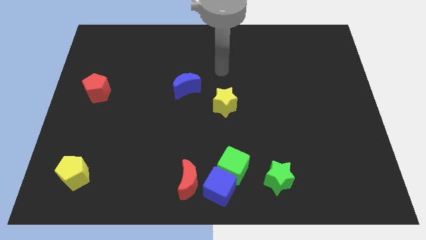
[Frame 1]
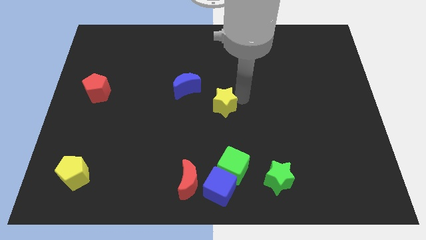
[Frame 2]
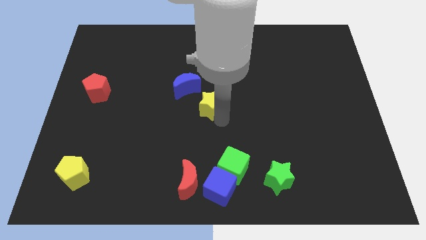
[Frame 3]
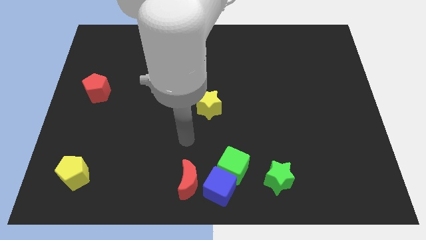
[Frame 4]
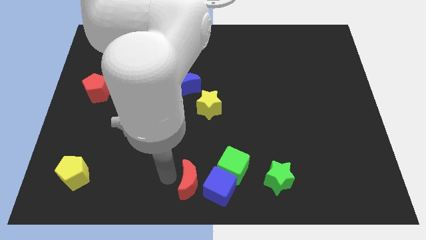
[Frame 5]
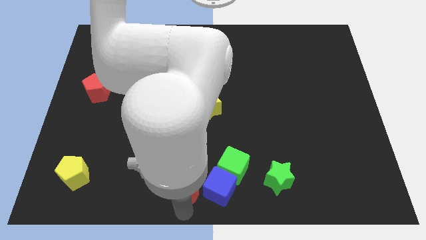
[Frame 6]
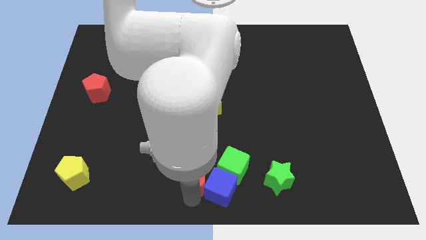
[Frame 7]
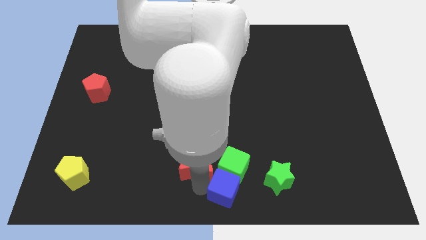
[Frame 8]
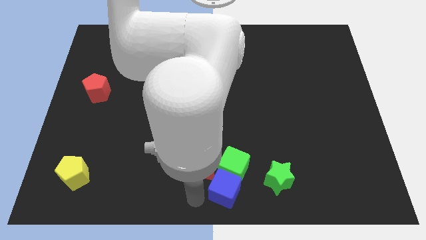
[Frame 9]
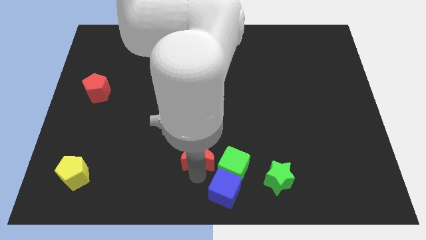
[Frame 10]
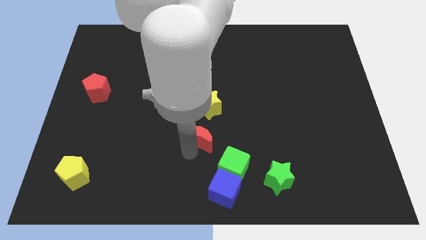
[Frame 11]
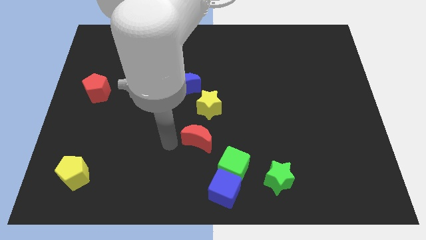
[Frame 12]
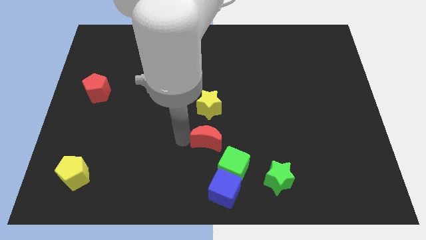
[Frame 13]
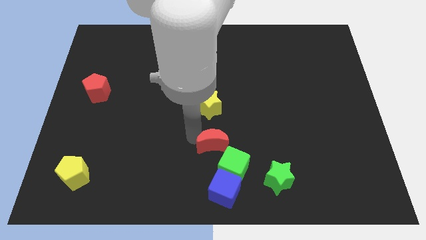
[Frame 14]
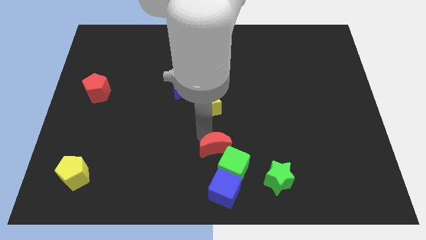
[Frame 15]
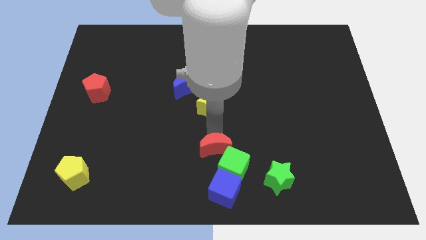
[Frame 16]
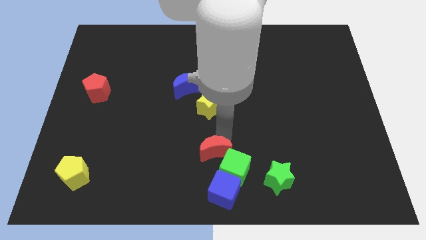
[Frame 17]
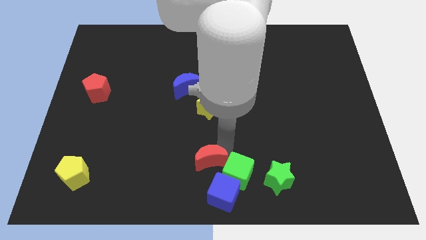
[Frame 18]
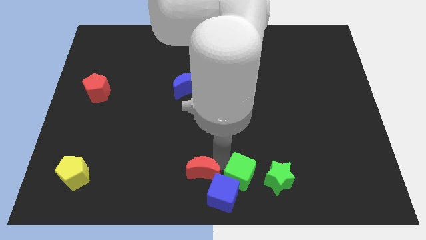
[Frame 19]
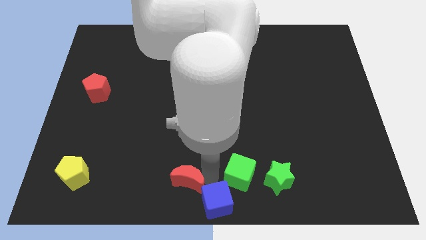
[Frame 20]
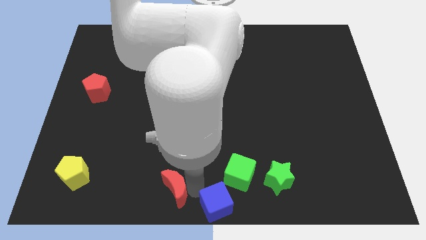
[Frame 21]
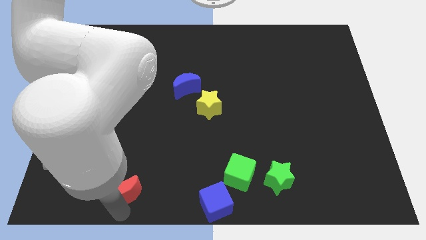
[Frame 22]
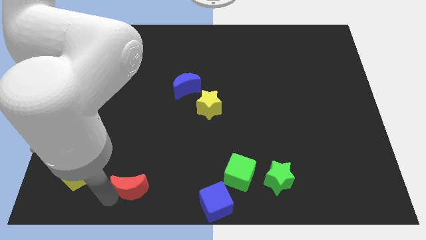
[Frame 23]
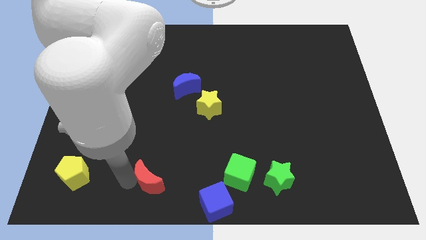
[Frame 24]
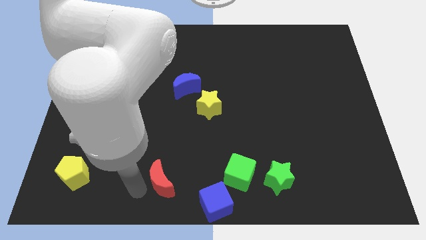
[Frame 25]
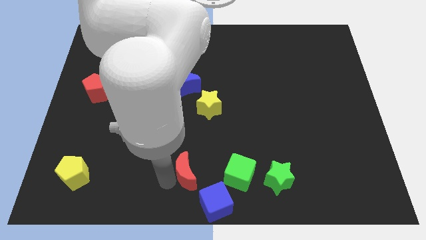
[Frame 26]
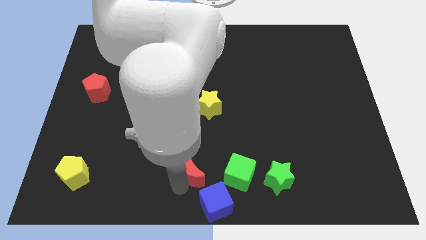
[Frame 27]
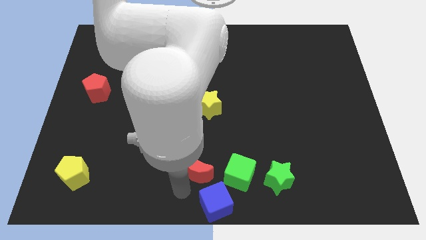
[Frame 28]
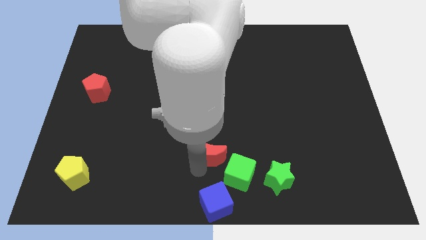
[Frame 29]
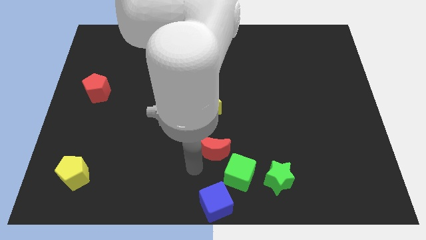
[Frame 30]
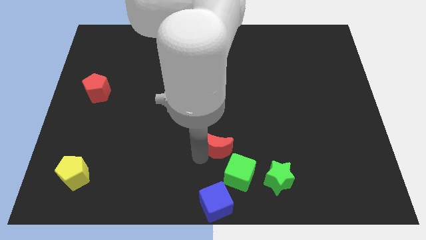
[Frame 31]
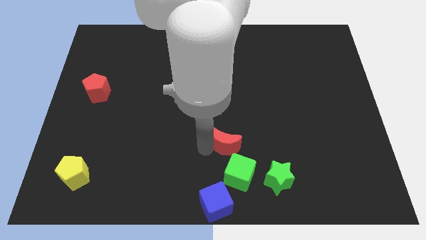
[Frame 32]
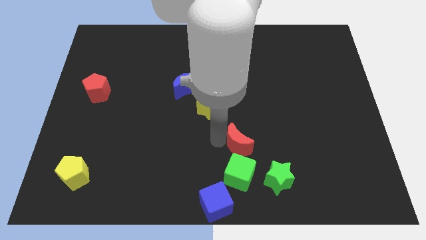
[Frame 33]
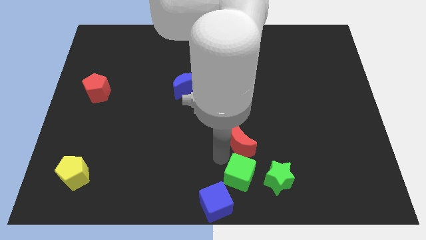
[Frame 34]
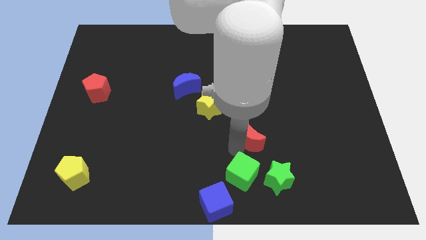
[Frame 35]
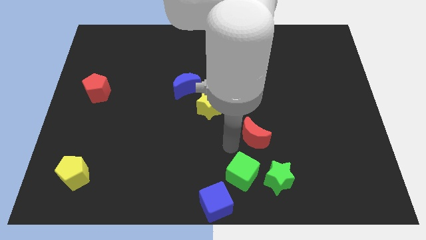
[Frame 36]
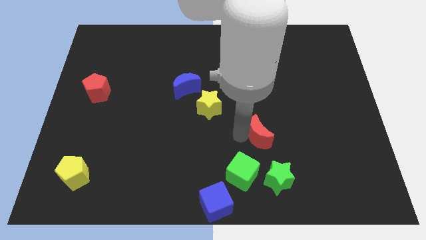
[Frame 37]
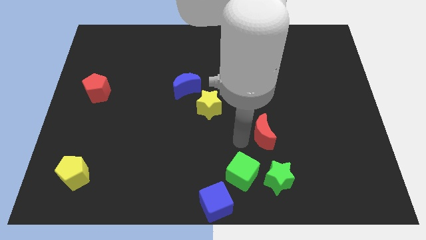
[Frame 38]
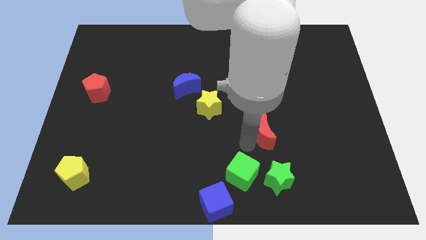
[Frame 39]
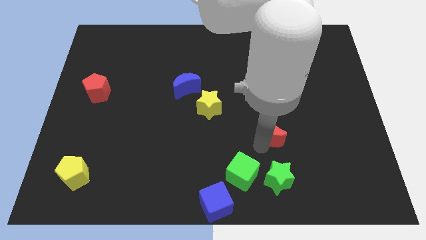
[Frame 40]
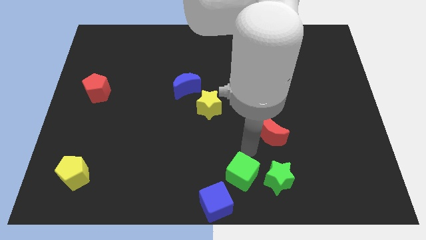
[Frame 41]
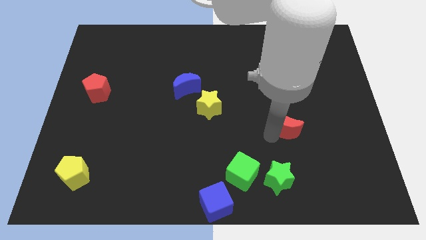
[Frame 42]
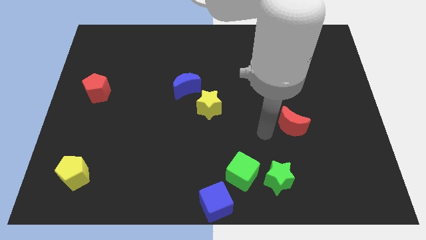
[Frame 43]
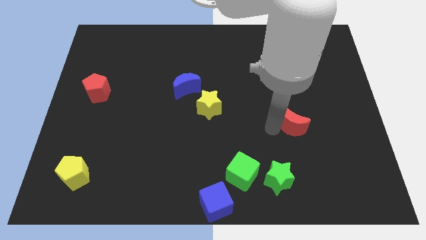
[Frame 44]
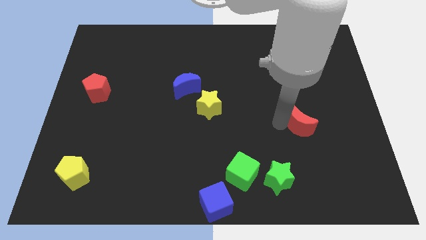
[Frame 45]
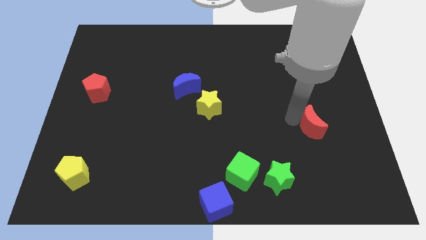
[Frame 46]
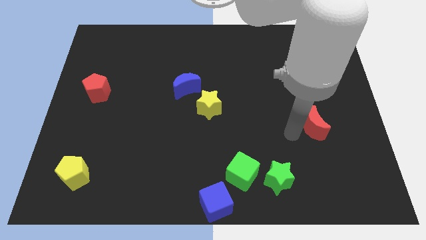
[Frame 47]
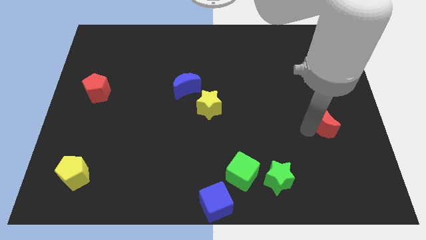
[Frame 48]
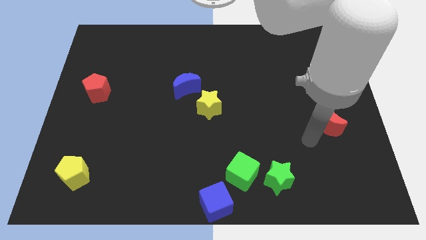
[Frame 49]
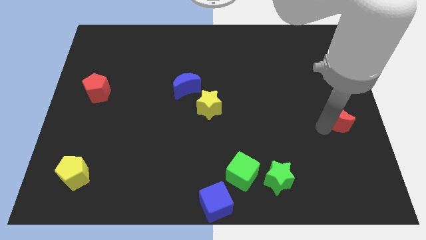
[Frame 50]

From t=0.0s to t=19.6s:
slide the red moon to the right side
